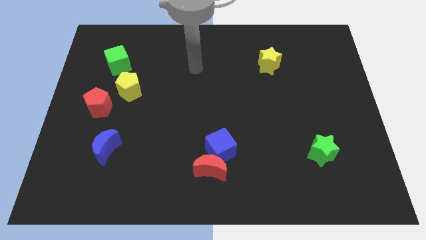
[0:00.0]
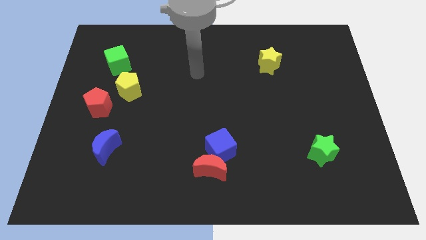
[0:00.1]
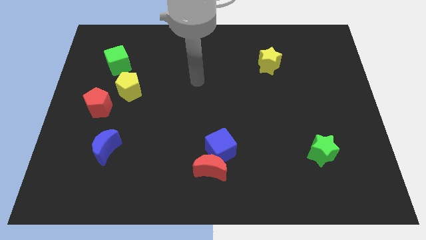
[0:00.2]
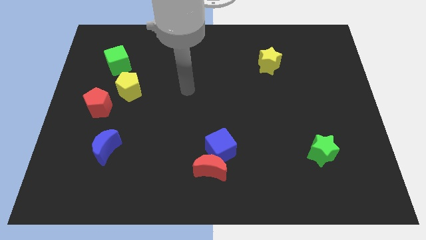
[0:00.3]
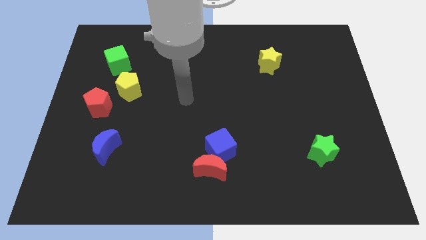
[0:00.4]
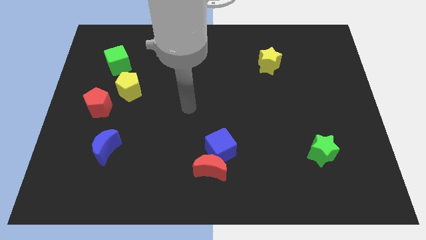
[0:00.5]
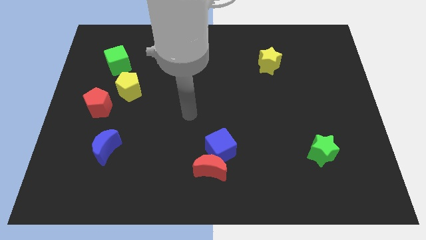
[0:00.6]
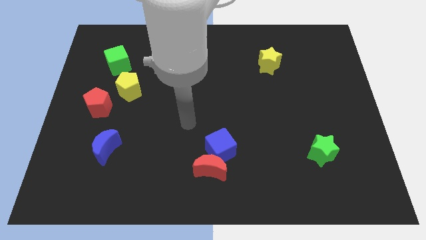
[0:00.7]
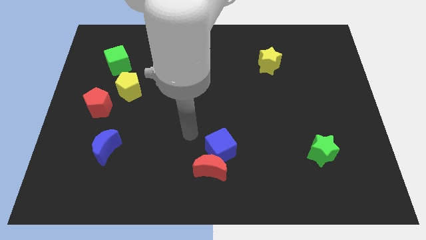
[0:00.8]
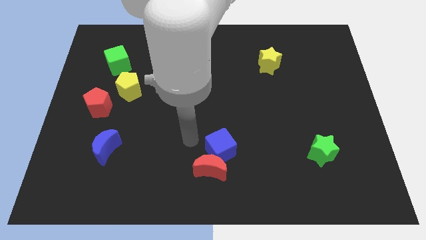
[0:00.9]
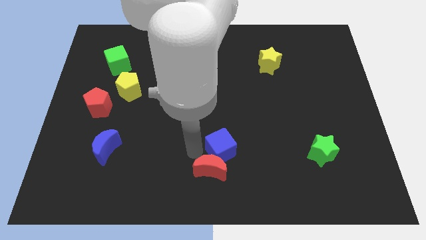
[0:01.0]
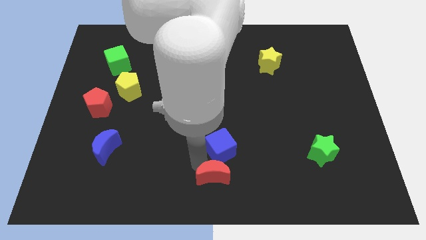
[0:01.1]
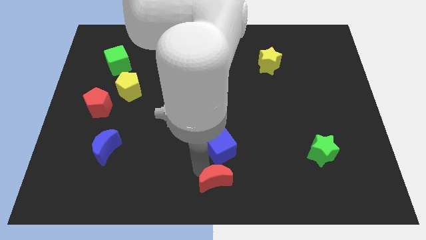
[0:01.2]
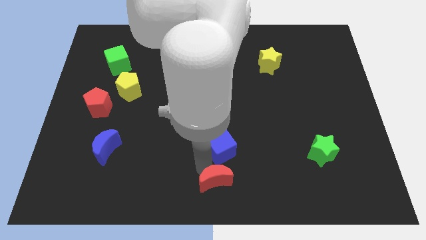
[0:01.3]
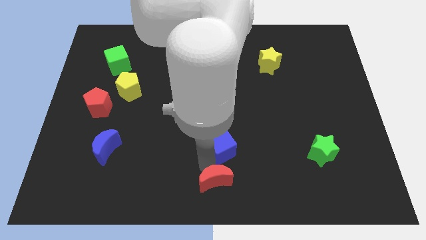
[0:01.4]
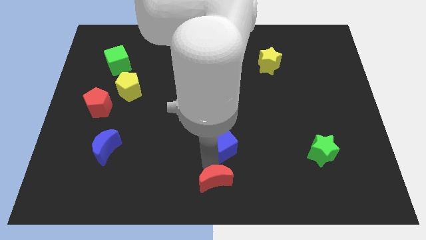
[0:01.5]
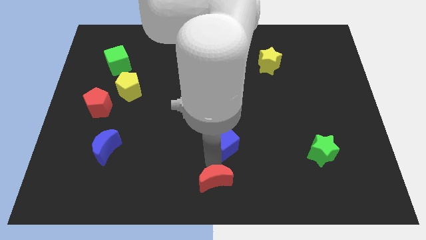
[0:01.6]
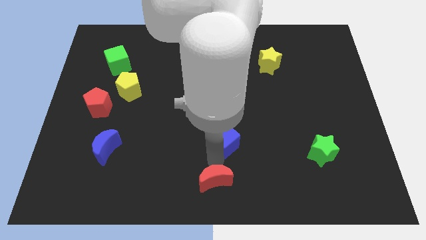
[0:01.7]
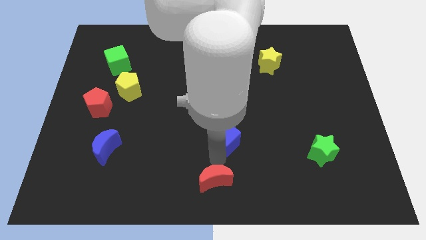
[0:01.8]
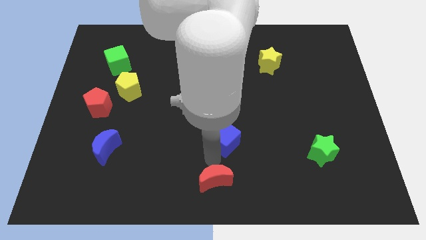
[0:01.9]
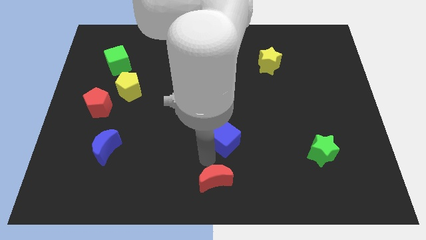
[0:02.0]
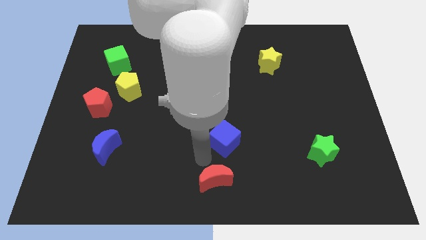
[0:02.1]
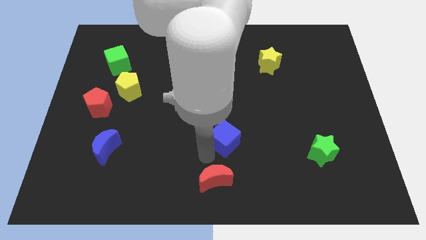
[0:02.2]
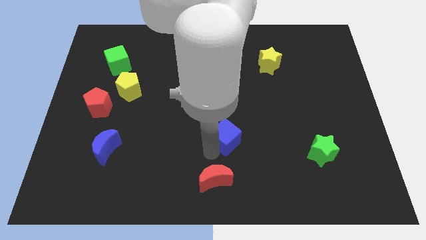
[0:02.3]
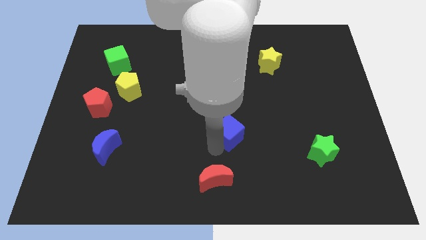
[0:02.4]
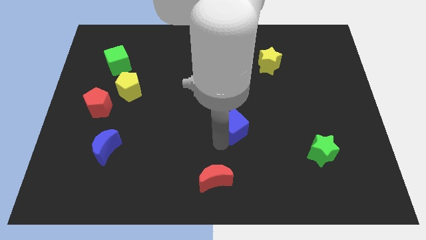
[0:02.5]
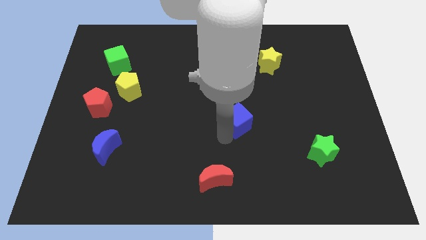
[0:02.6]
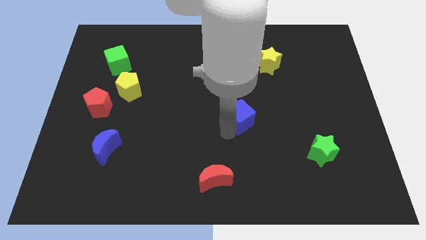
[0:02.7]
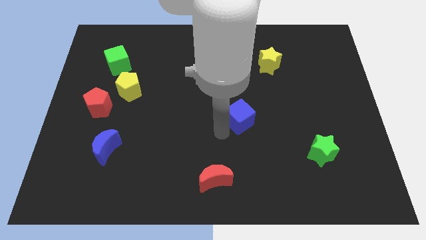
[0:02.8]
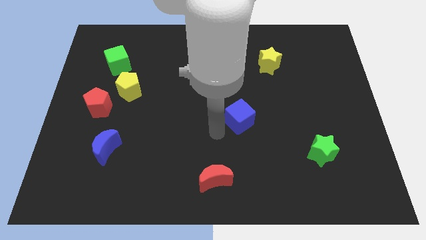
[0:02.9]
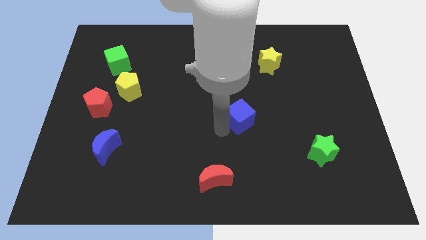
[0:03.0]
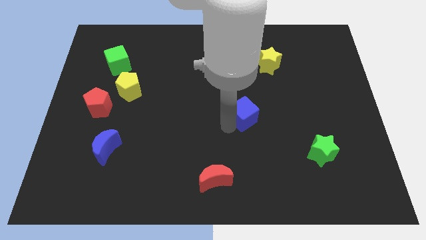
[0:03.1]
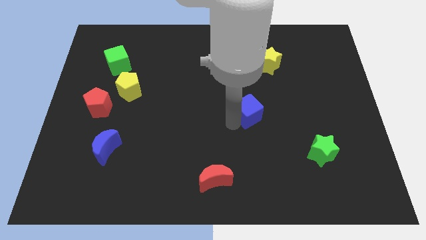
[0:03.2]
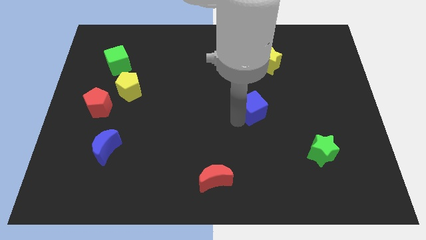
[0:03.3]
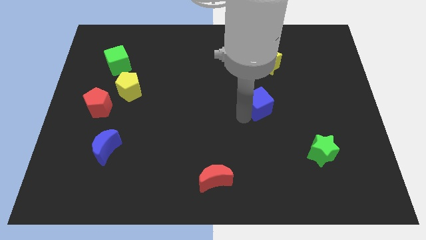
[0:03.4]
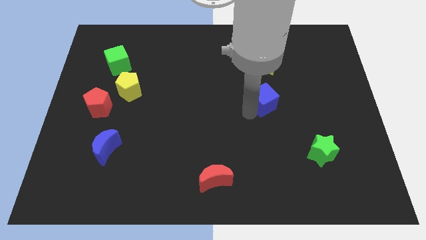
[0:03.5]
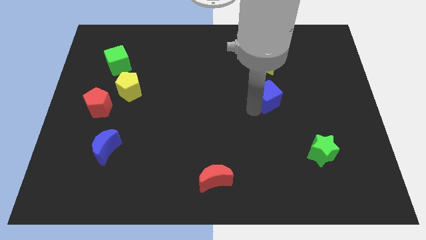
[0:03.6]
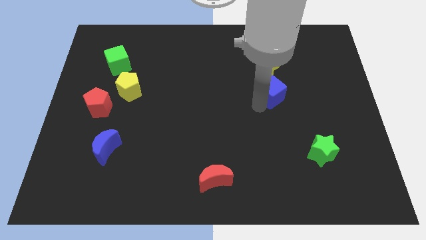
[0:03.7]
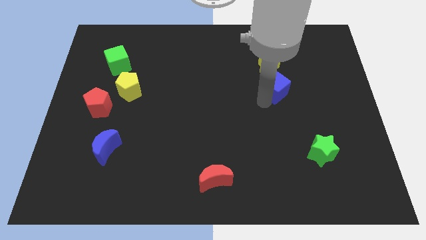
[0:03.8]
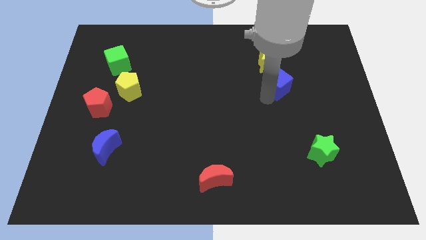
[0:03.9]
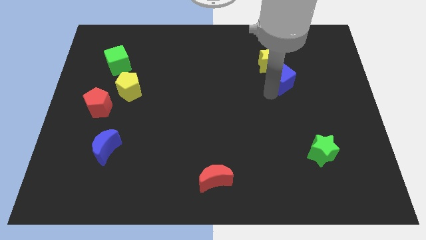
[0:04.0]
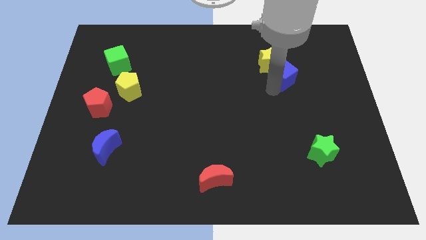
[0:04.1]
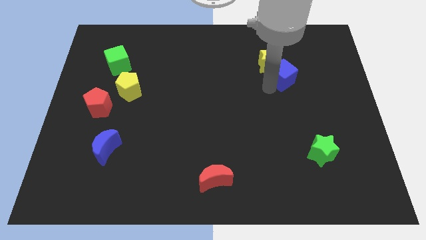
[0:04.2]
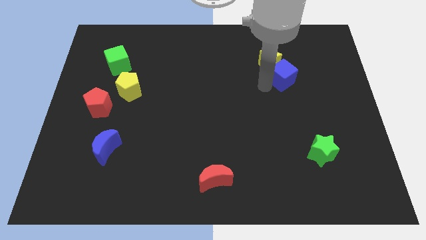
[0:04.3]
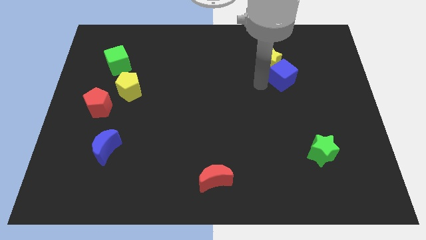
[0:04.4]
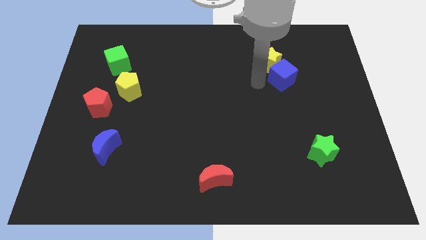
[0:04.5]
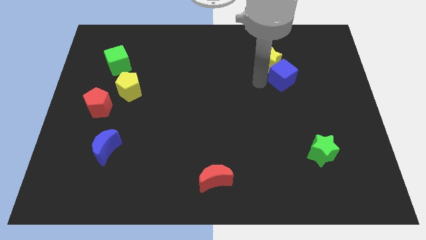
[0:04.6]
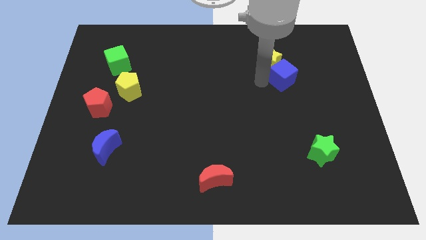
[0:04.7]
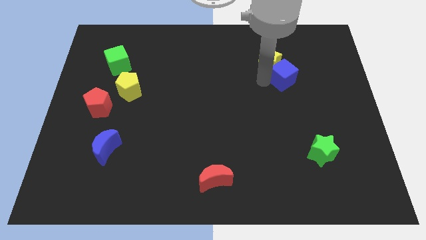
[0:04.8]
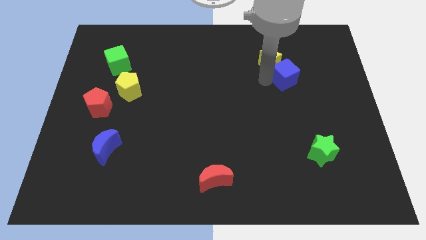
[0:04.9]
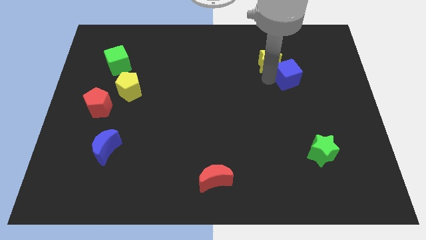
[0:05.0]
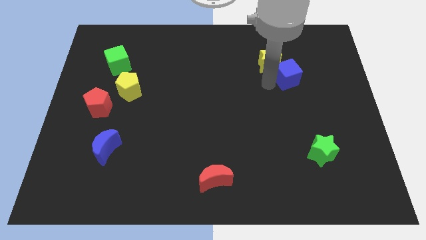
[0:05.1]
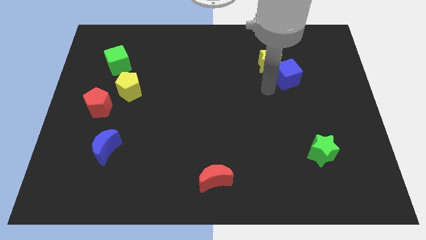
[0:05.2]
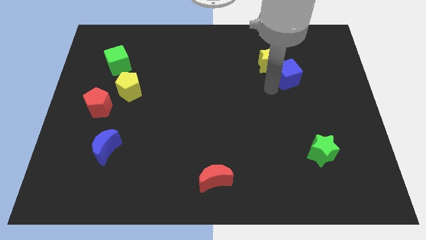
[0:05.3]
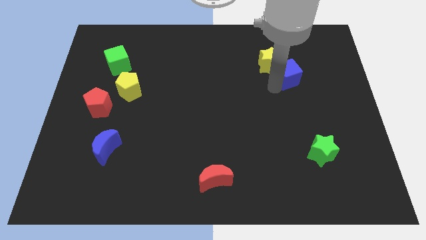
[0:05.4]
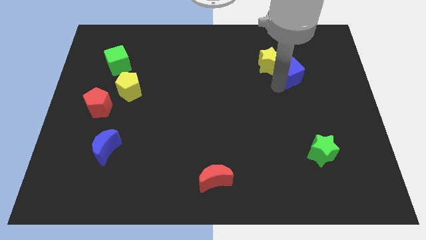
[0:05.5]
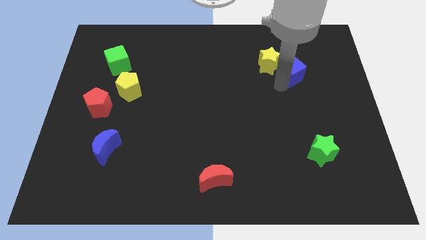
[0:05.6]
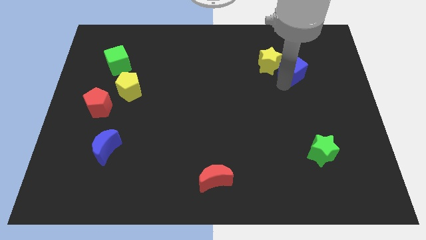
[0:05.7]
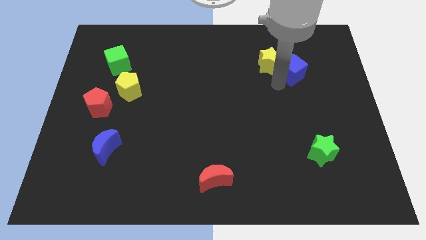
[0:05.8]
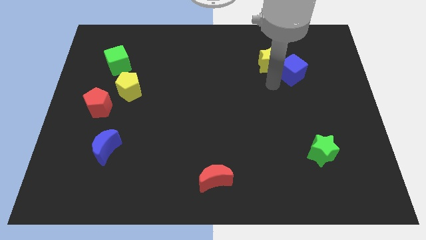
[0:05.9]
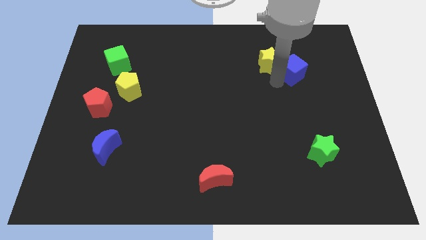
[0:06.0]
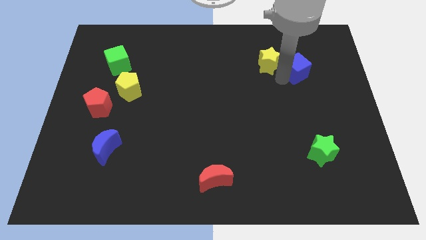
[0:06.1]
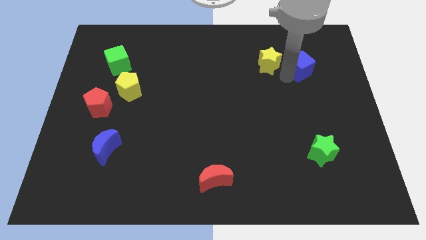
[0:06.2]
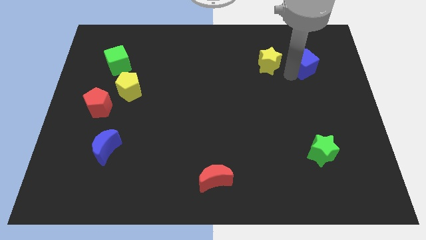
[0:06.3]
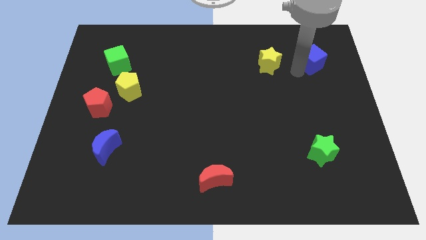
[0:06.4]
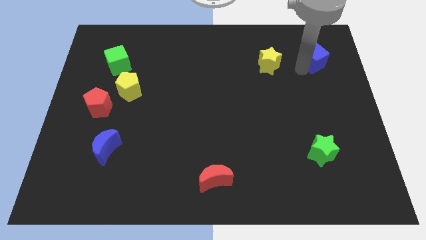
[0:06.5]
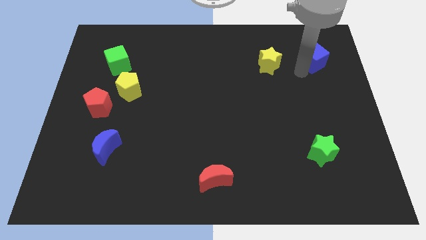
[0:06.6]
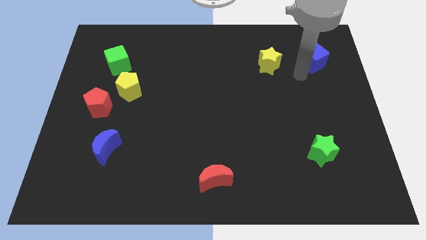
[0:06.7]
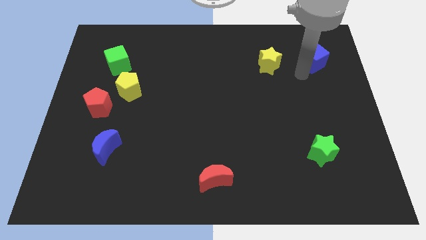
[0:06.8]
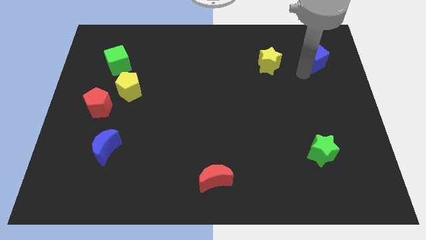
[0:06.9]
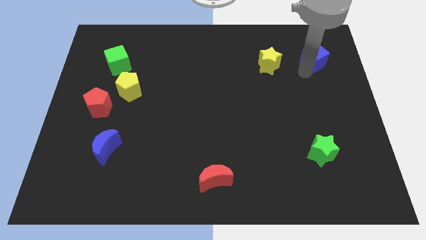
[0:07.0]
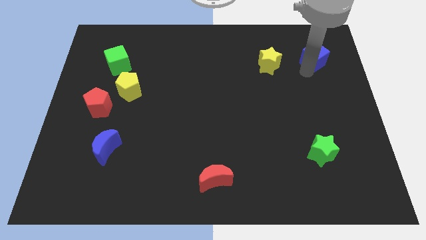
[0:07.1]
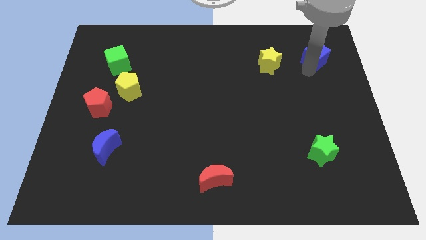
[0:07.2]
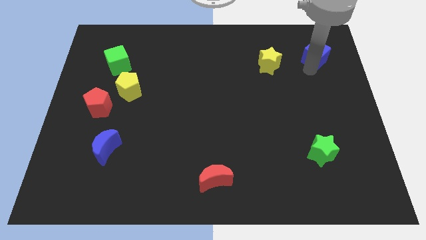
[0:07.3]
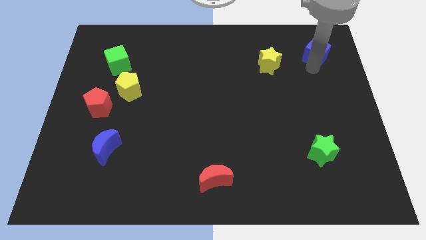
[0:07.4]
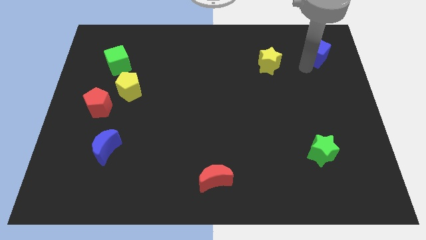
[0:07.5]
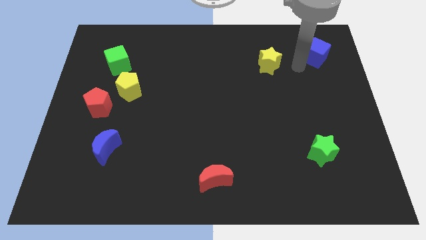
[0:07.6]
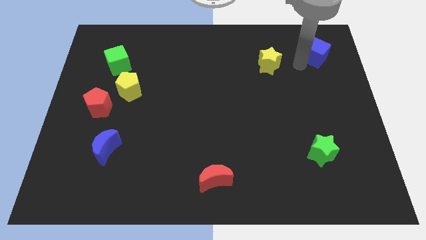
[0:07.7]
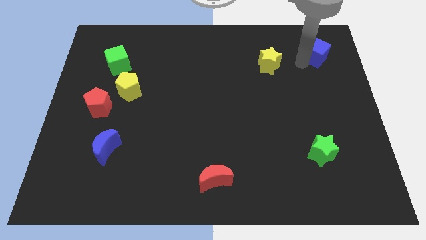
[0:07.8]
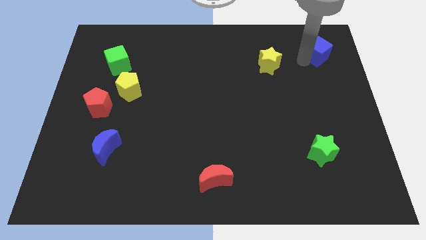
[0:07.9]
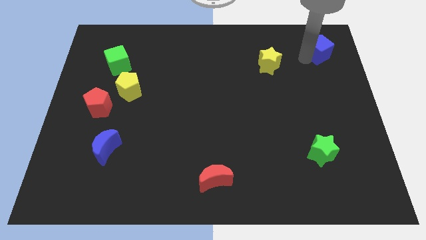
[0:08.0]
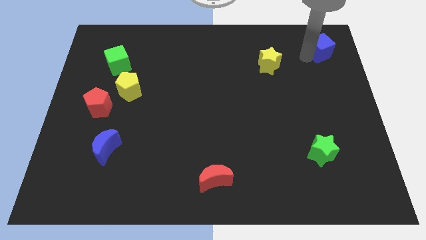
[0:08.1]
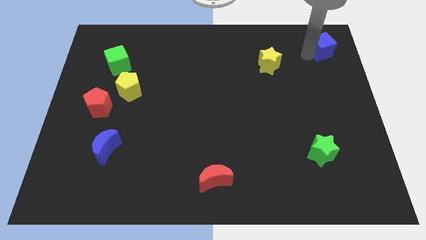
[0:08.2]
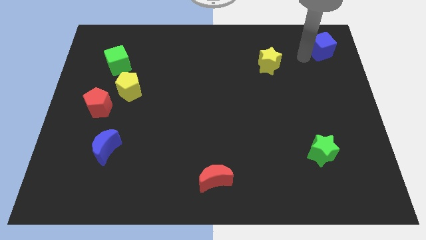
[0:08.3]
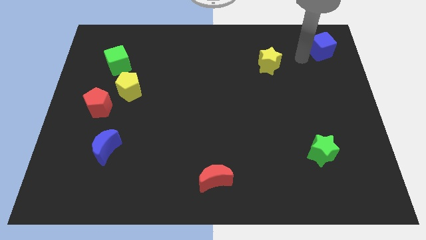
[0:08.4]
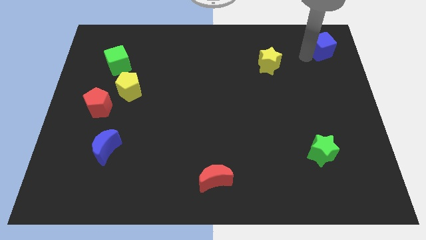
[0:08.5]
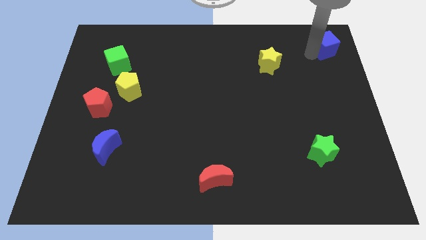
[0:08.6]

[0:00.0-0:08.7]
push the blue cube to the top right corner
